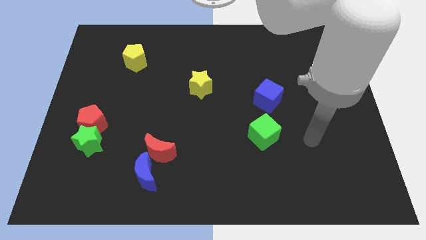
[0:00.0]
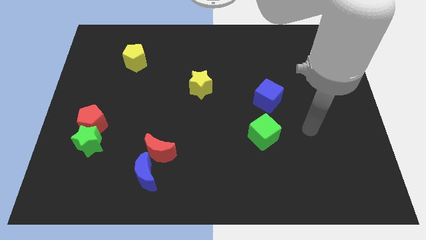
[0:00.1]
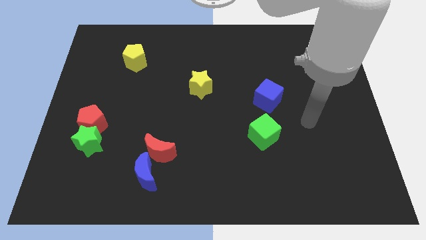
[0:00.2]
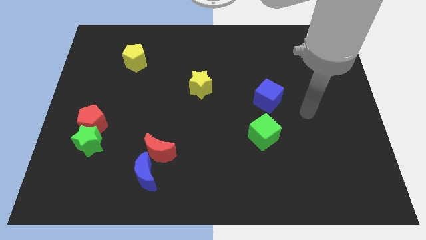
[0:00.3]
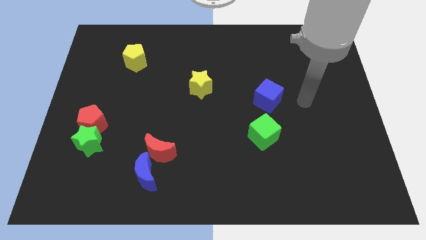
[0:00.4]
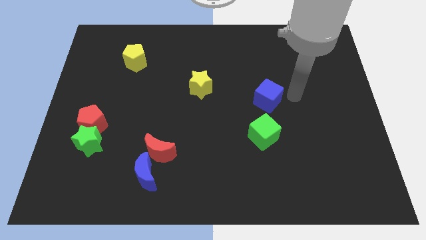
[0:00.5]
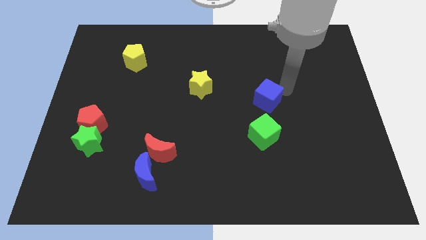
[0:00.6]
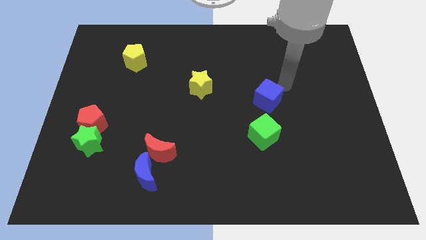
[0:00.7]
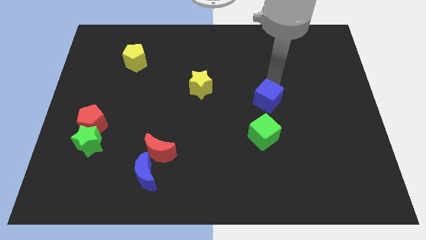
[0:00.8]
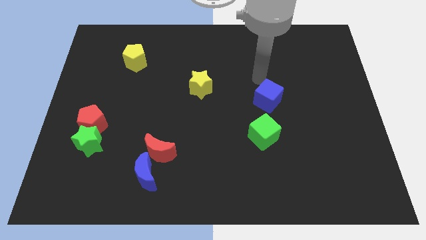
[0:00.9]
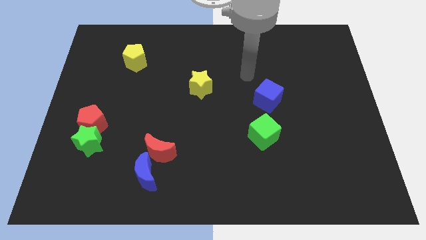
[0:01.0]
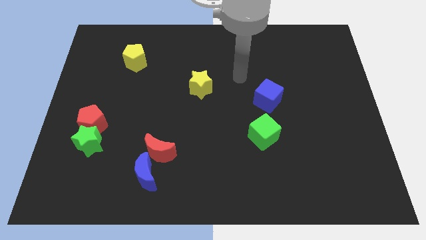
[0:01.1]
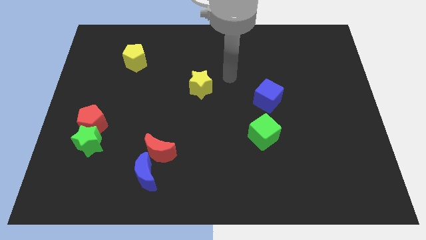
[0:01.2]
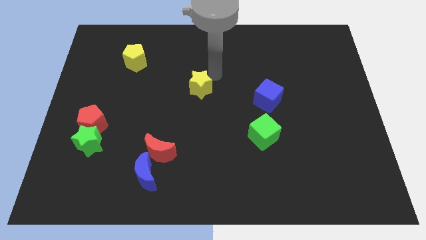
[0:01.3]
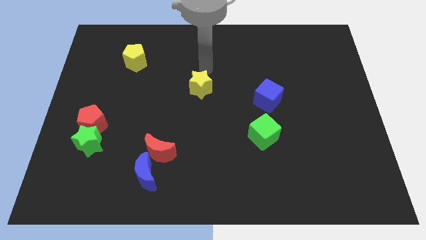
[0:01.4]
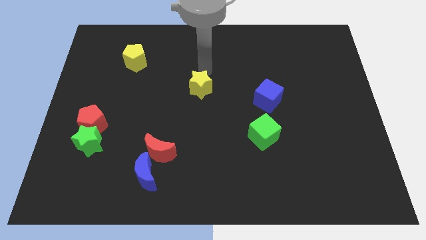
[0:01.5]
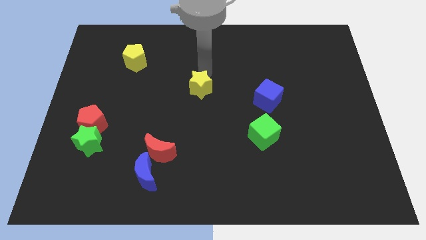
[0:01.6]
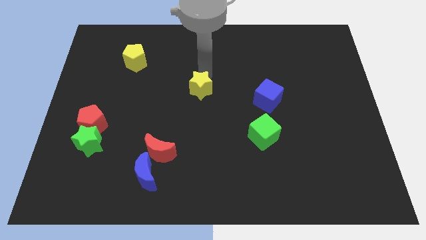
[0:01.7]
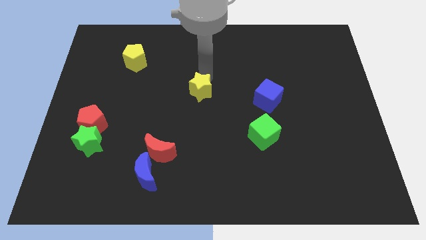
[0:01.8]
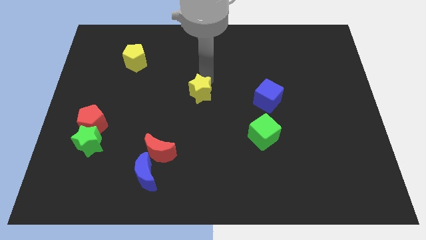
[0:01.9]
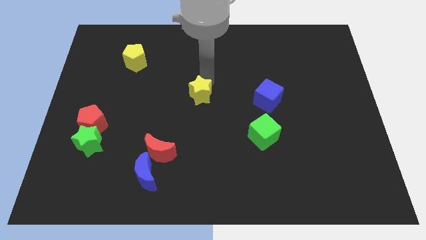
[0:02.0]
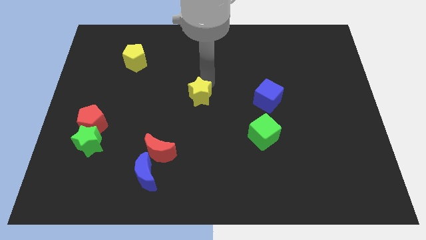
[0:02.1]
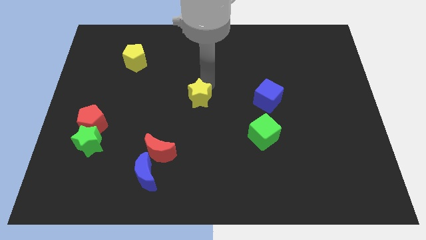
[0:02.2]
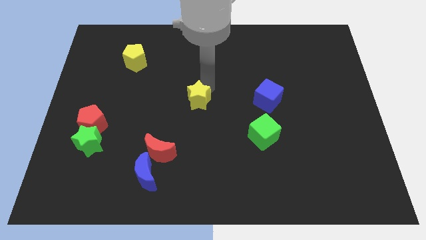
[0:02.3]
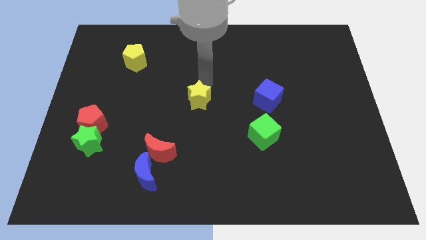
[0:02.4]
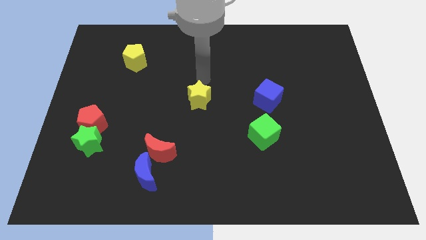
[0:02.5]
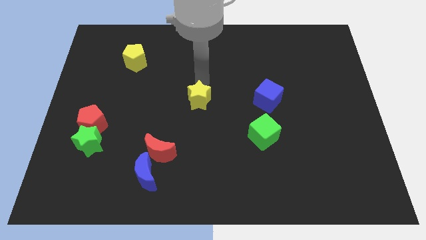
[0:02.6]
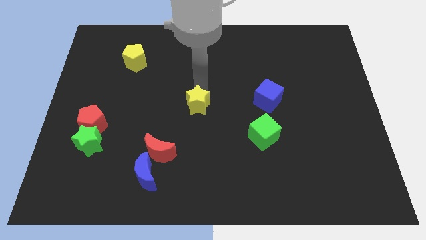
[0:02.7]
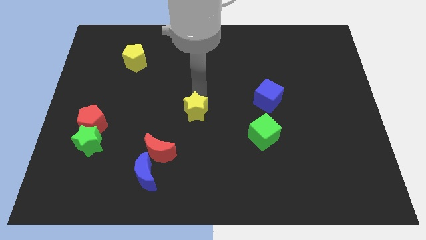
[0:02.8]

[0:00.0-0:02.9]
move the yellow star a little down

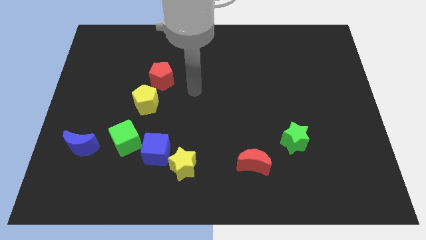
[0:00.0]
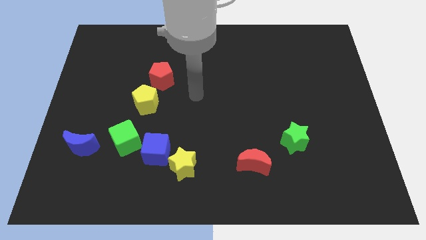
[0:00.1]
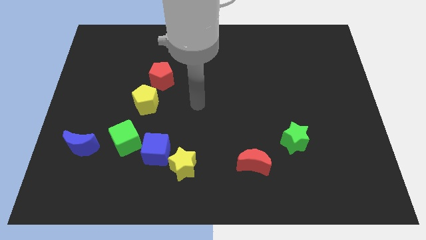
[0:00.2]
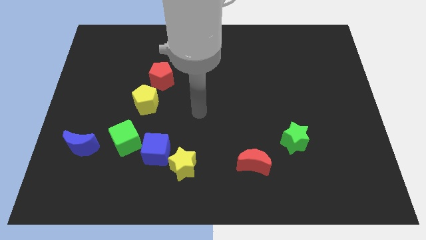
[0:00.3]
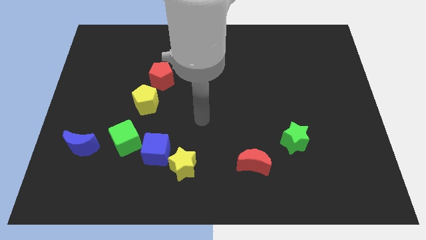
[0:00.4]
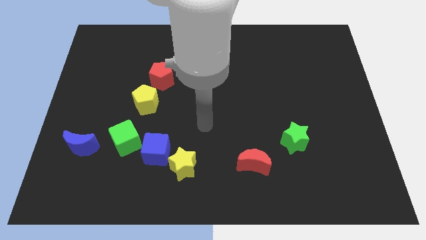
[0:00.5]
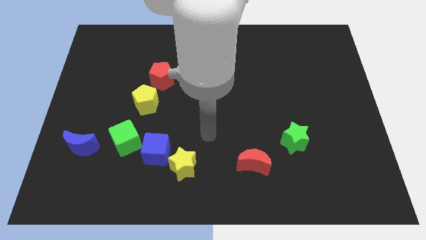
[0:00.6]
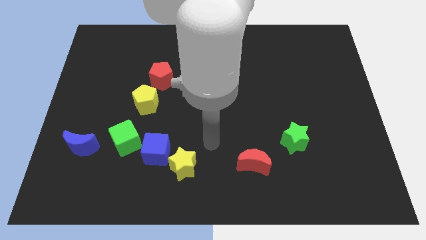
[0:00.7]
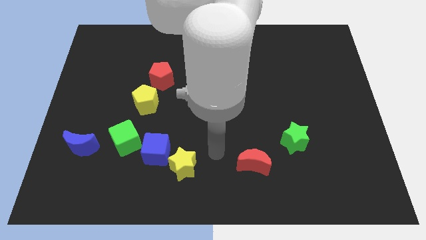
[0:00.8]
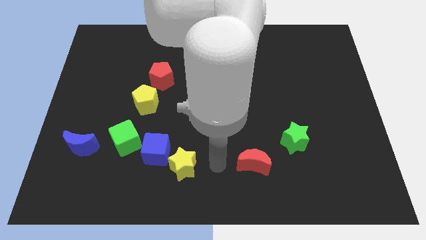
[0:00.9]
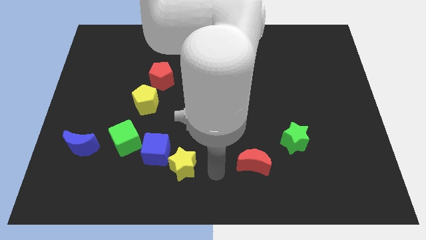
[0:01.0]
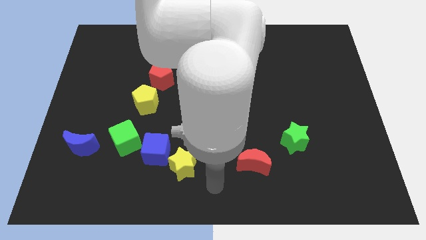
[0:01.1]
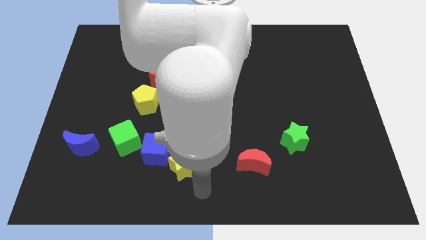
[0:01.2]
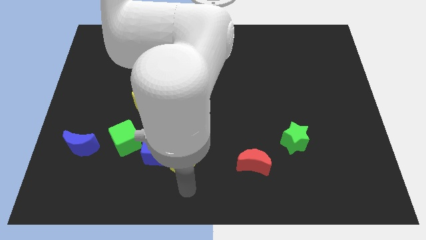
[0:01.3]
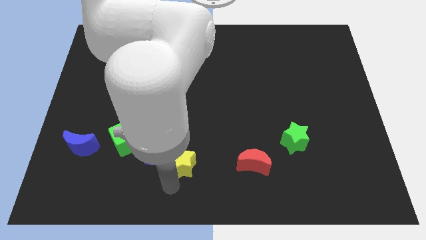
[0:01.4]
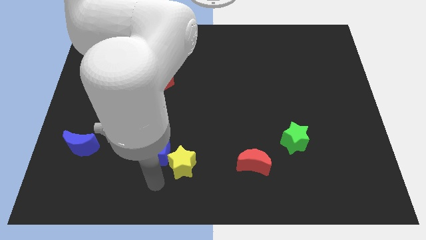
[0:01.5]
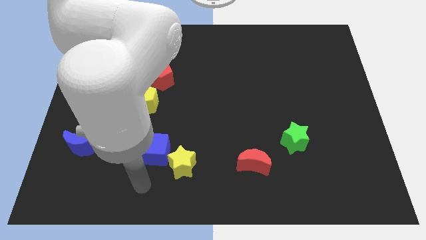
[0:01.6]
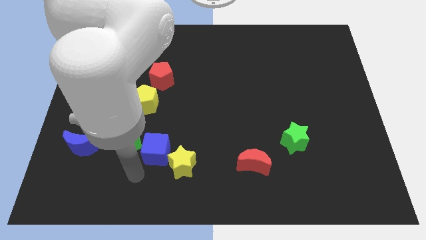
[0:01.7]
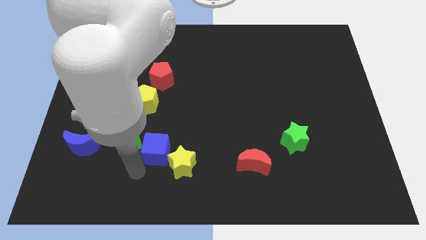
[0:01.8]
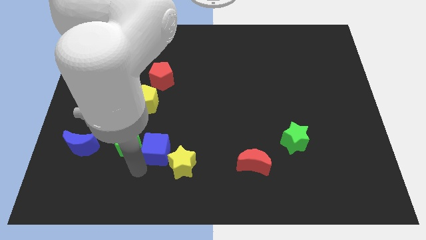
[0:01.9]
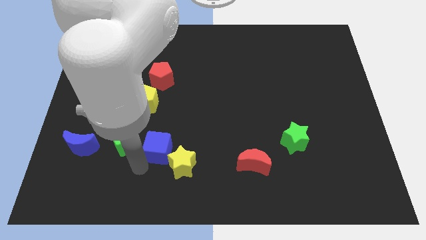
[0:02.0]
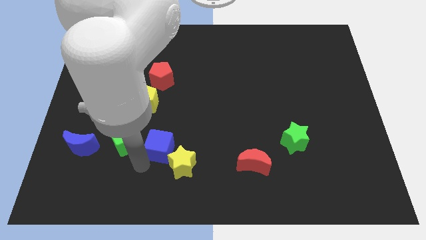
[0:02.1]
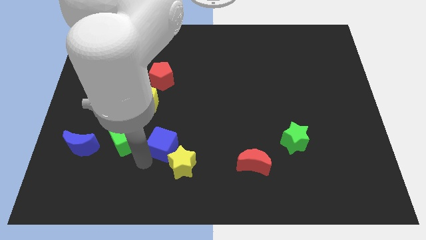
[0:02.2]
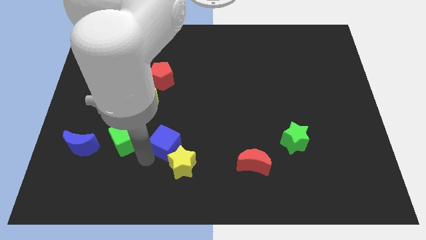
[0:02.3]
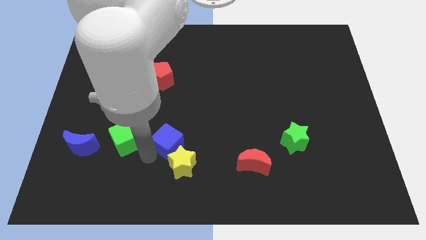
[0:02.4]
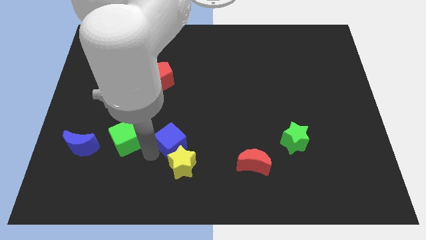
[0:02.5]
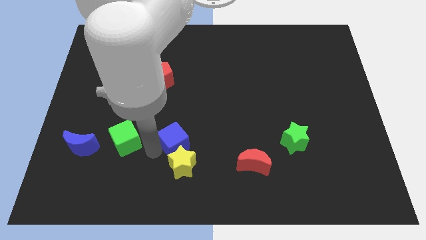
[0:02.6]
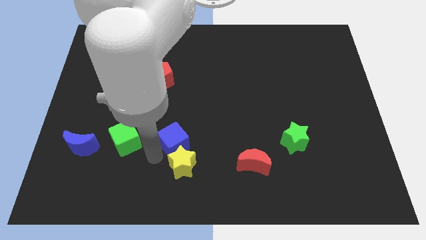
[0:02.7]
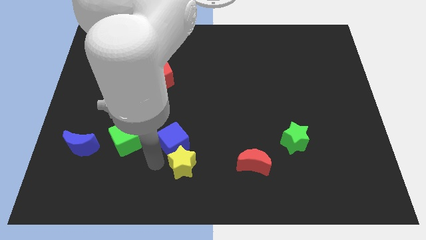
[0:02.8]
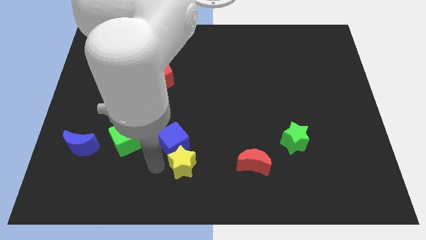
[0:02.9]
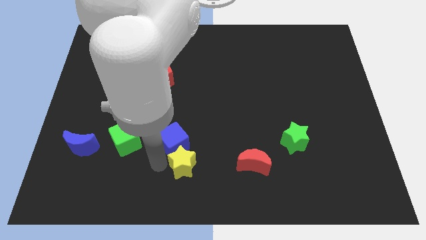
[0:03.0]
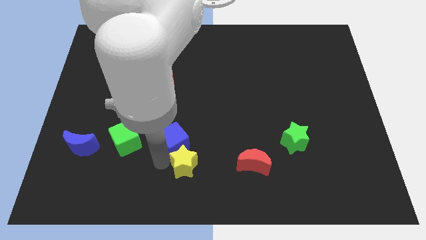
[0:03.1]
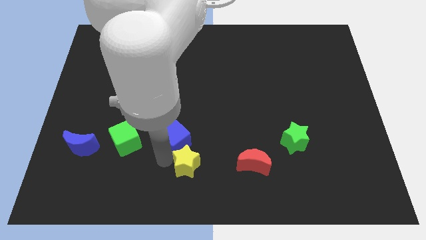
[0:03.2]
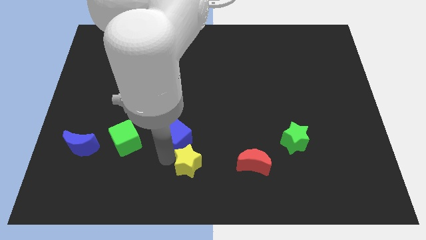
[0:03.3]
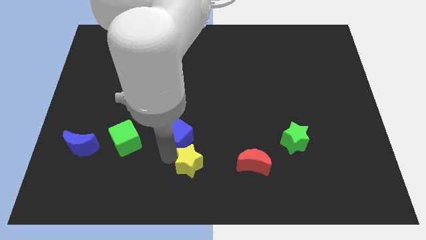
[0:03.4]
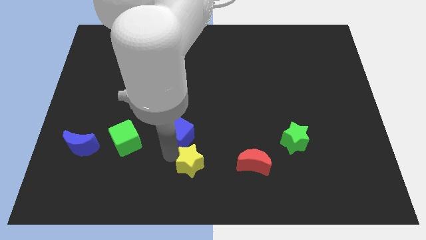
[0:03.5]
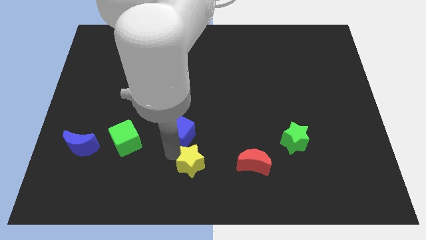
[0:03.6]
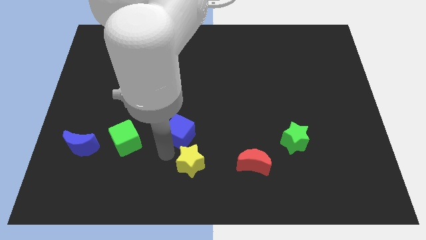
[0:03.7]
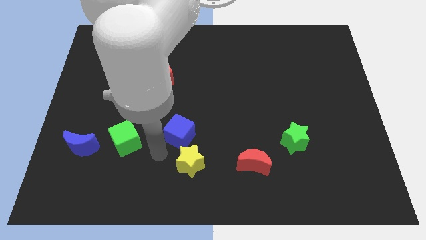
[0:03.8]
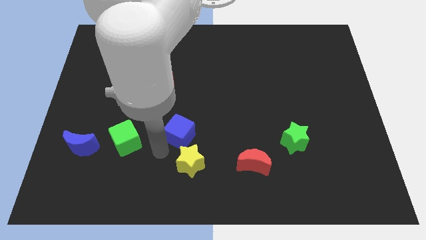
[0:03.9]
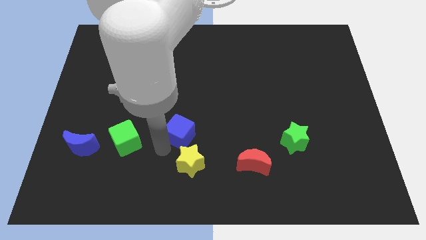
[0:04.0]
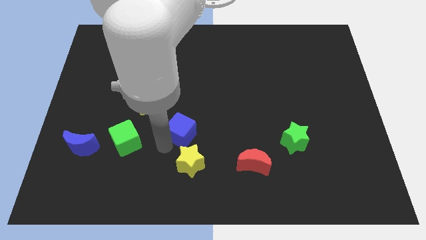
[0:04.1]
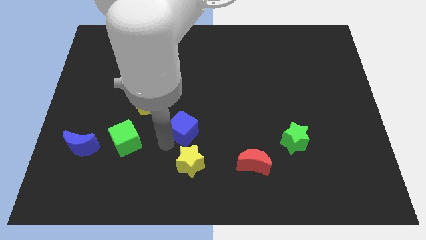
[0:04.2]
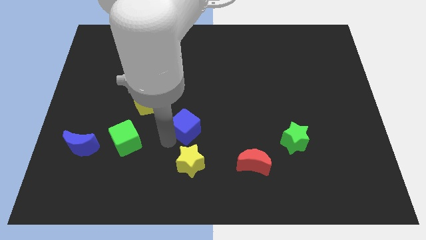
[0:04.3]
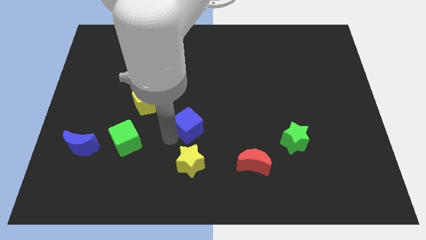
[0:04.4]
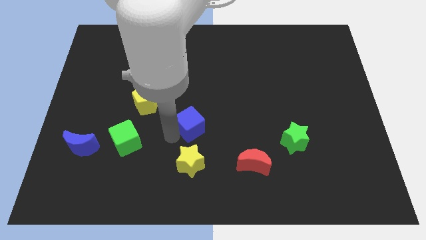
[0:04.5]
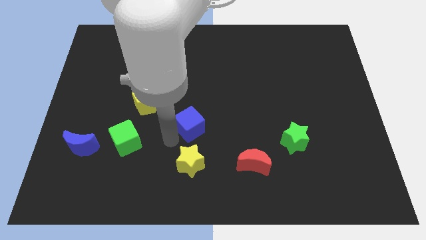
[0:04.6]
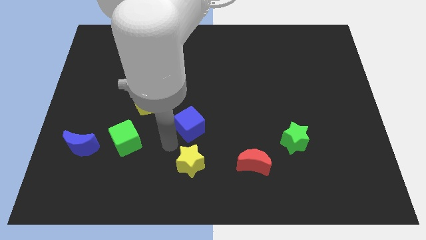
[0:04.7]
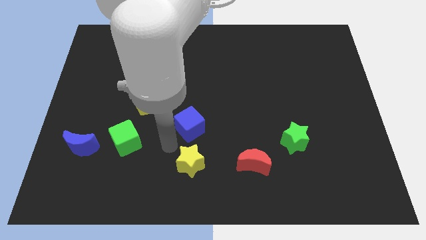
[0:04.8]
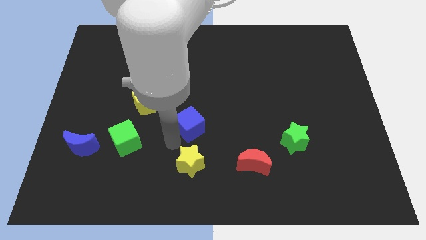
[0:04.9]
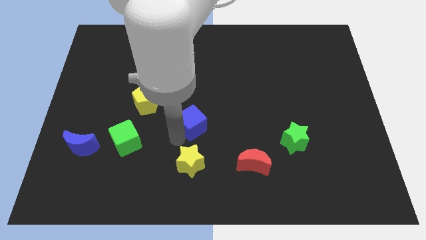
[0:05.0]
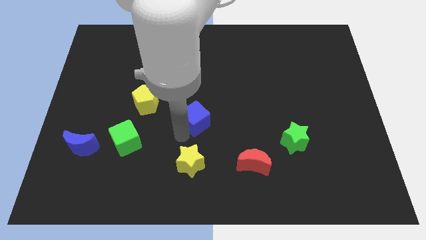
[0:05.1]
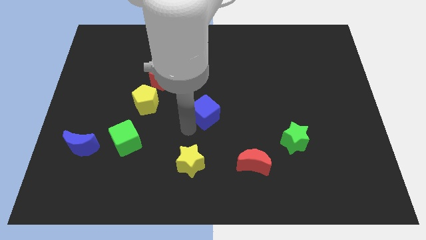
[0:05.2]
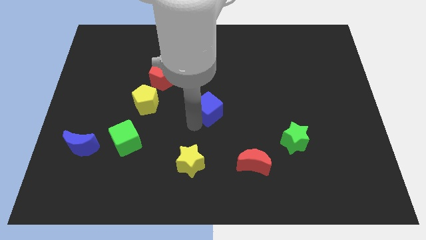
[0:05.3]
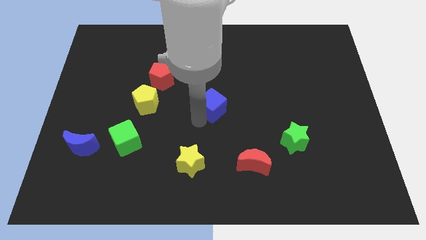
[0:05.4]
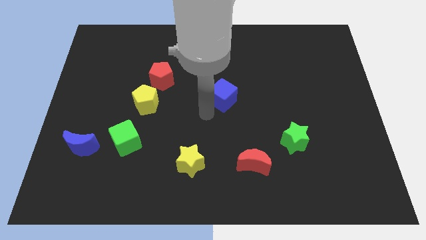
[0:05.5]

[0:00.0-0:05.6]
push the blue cube up and to the right diagonally
